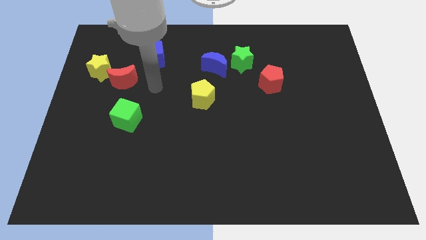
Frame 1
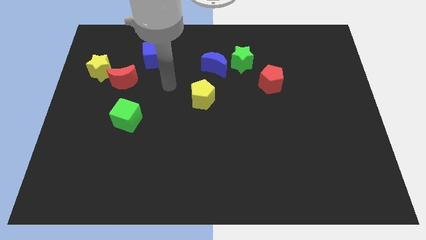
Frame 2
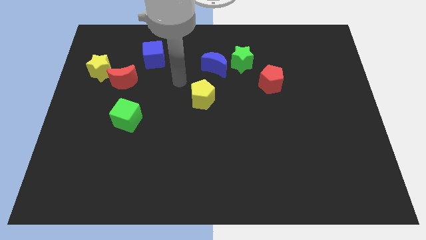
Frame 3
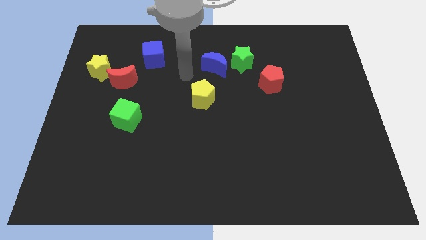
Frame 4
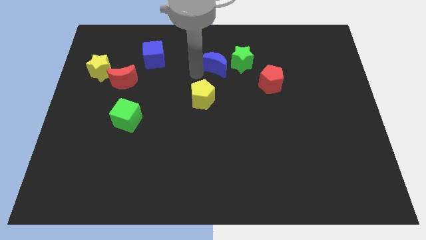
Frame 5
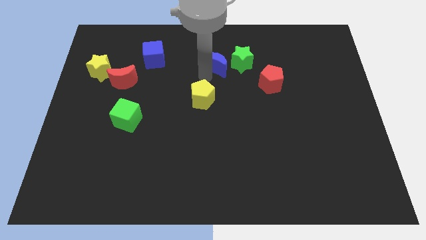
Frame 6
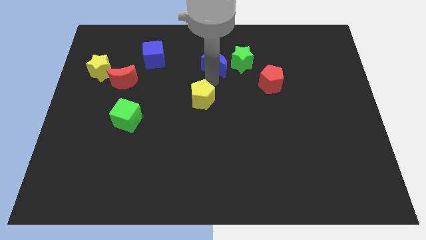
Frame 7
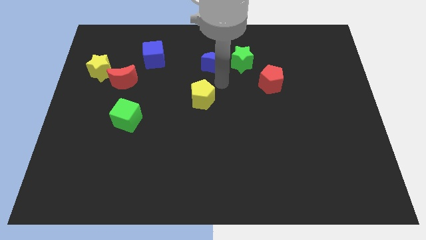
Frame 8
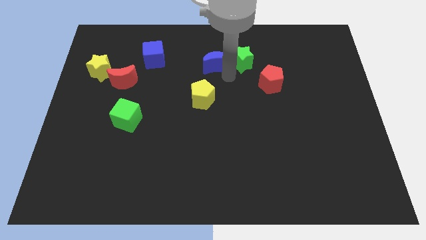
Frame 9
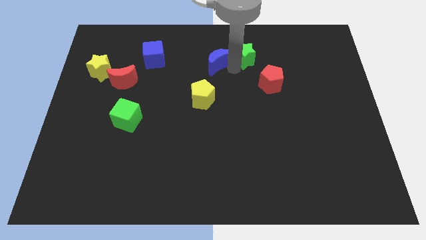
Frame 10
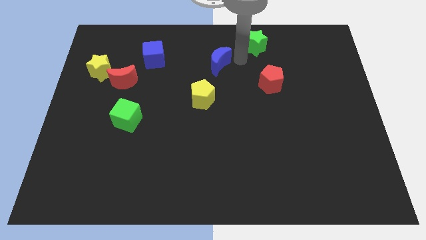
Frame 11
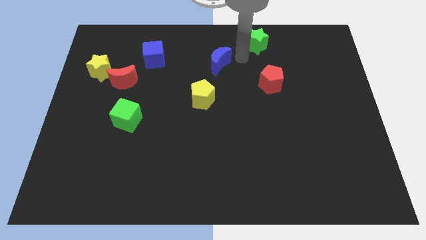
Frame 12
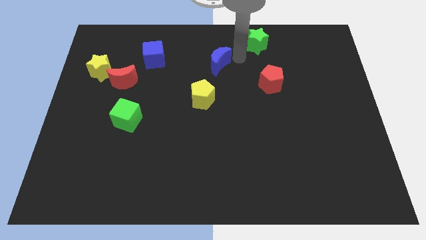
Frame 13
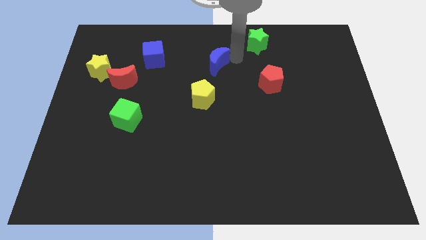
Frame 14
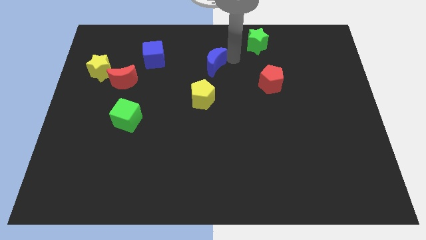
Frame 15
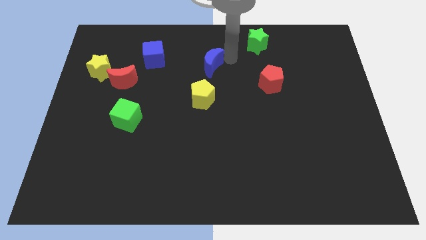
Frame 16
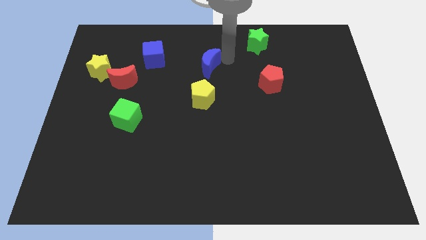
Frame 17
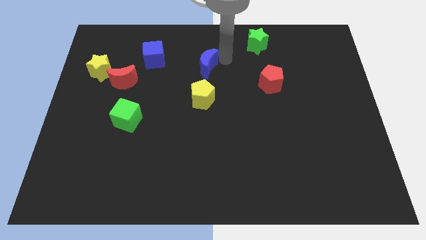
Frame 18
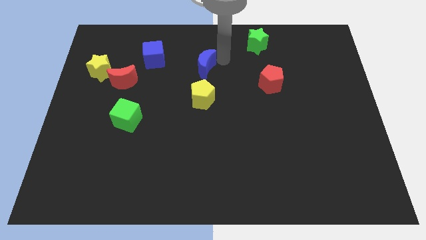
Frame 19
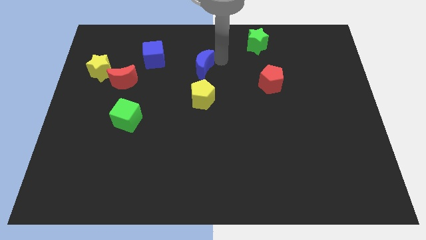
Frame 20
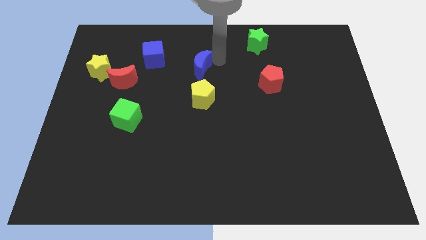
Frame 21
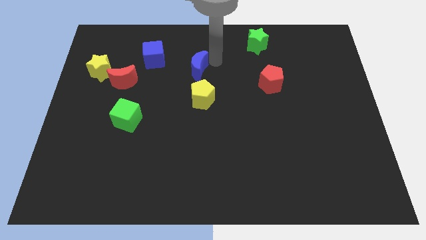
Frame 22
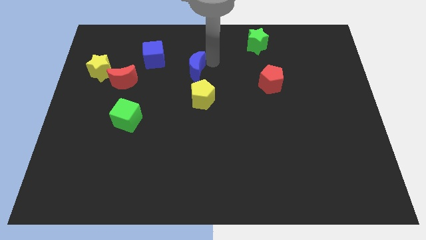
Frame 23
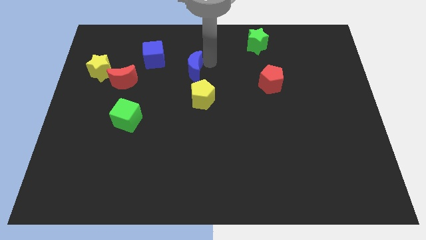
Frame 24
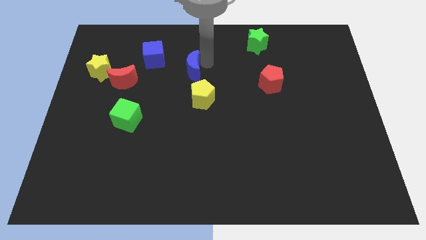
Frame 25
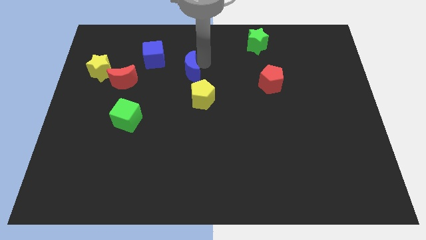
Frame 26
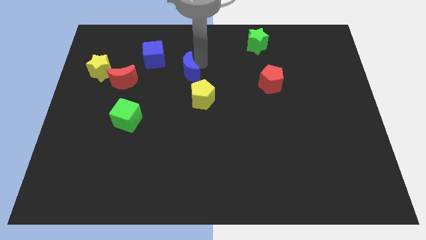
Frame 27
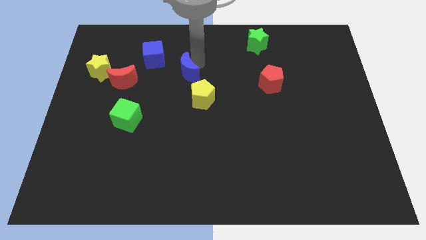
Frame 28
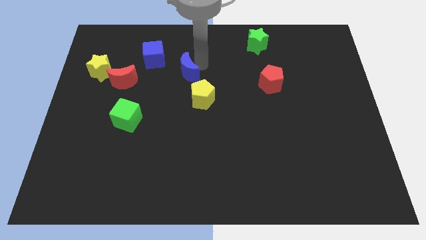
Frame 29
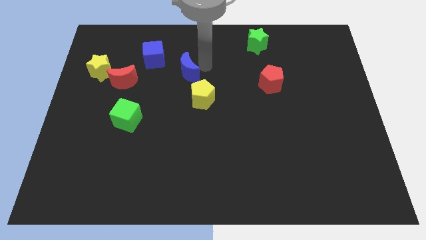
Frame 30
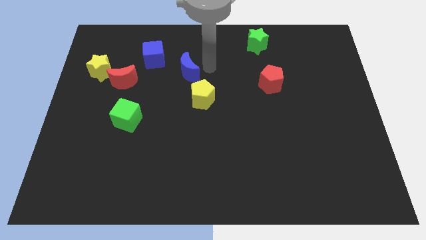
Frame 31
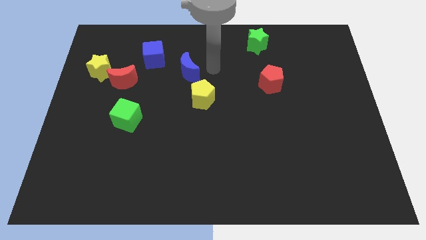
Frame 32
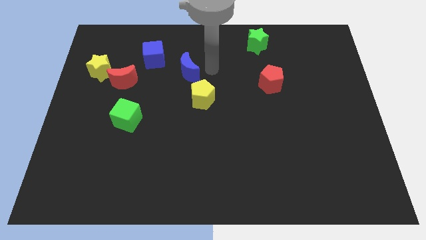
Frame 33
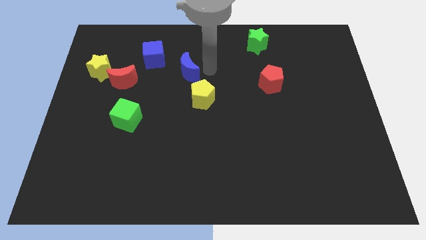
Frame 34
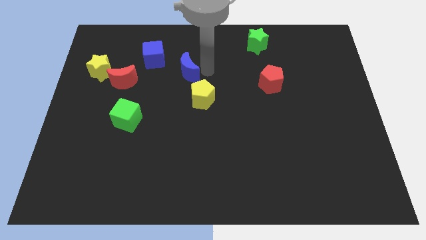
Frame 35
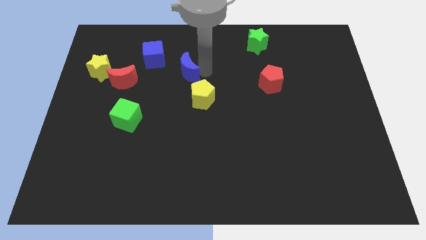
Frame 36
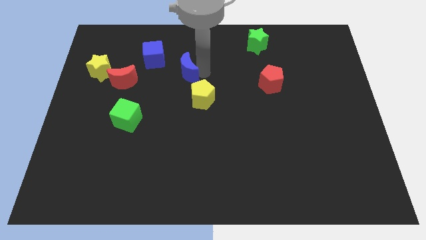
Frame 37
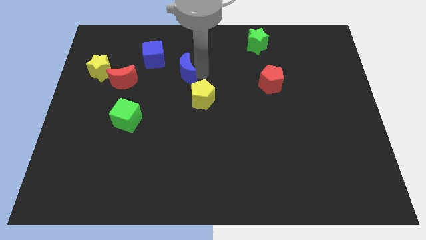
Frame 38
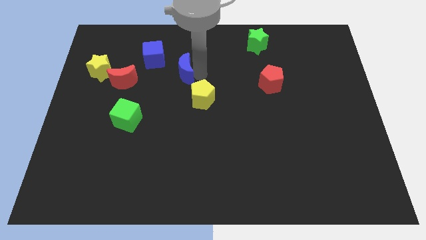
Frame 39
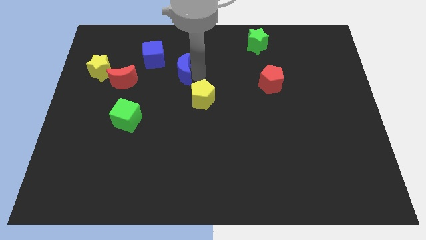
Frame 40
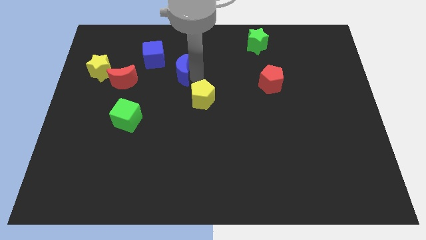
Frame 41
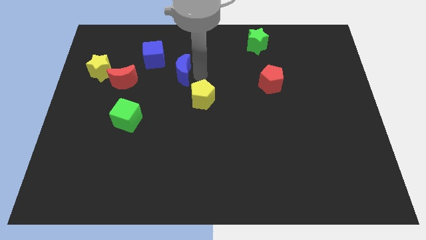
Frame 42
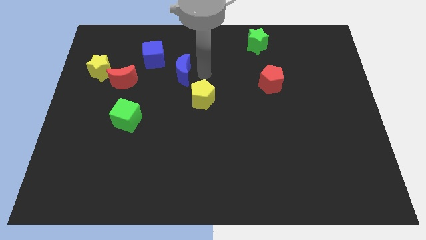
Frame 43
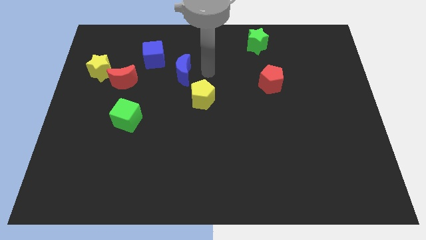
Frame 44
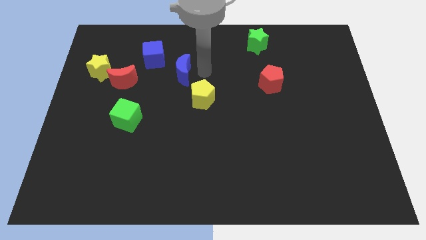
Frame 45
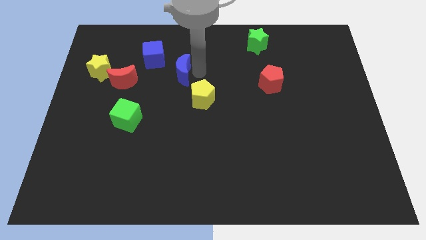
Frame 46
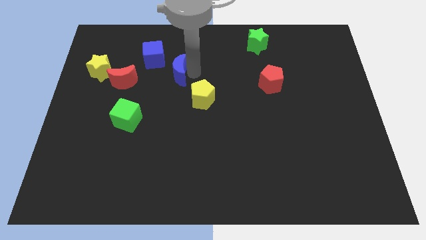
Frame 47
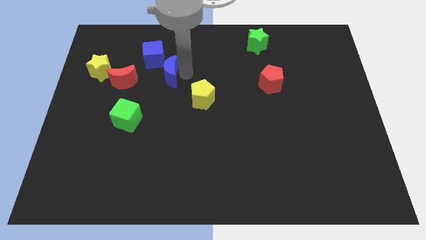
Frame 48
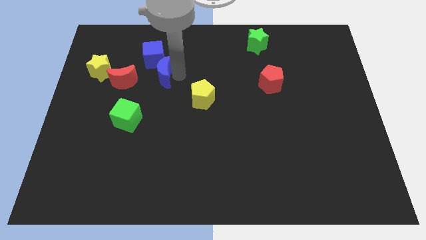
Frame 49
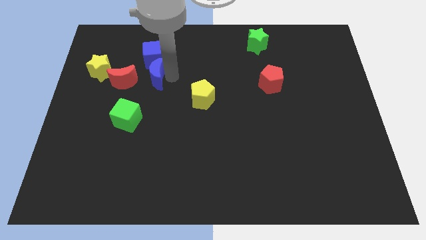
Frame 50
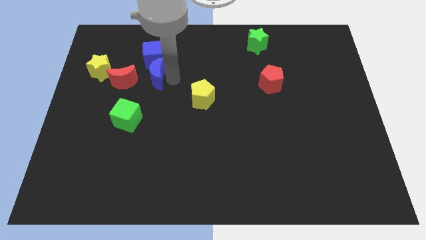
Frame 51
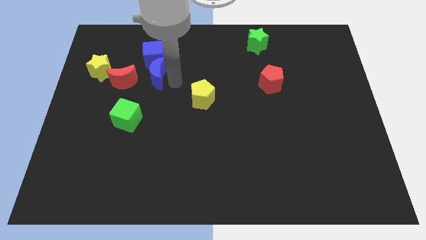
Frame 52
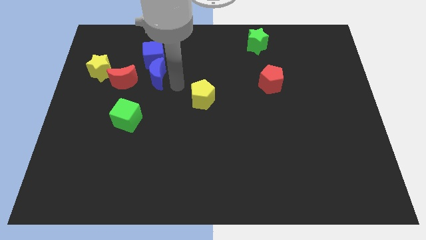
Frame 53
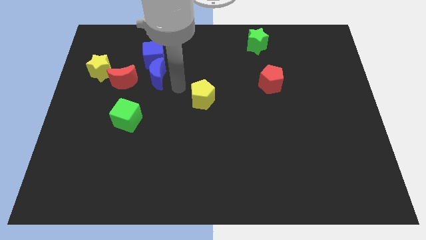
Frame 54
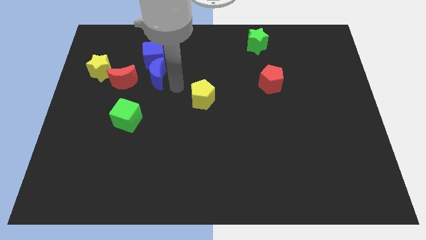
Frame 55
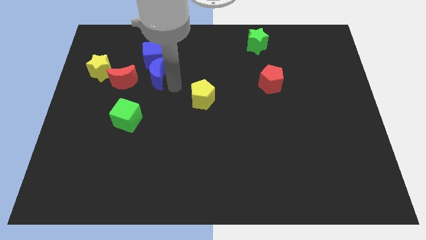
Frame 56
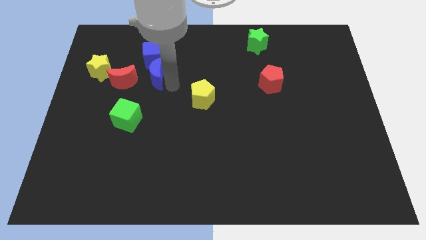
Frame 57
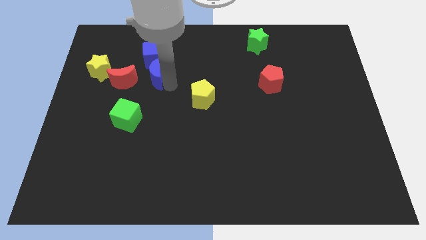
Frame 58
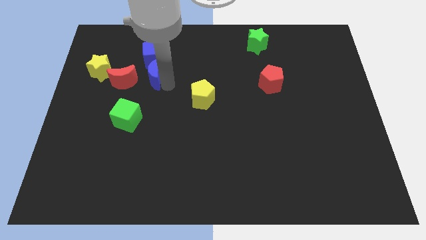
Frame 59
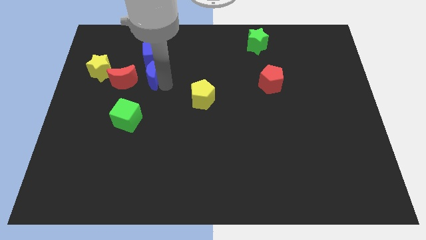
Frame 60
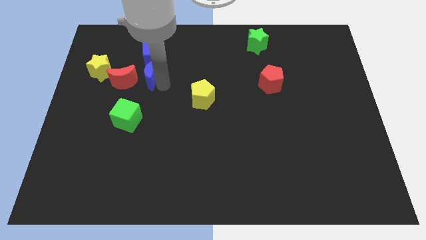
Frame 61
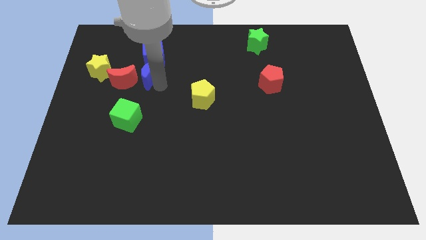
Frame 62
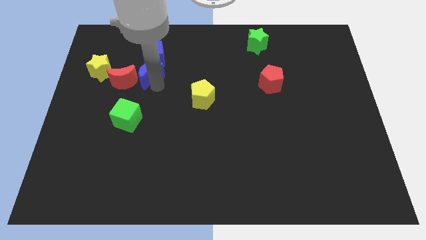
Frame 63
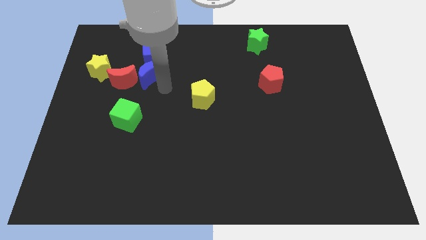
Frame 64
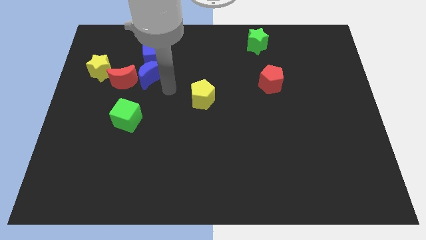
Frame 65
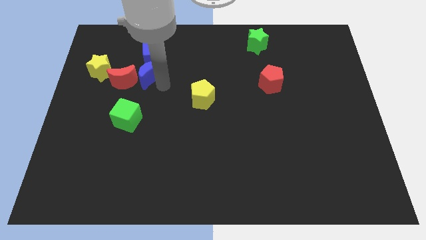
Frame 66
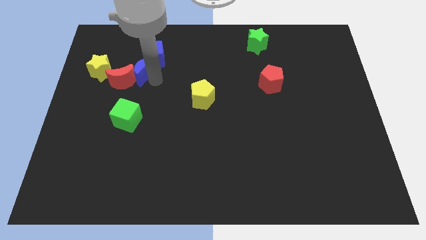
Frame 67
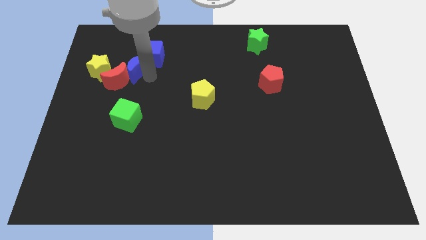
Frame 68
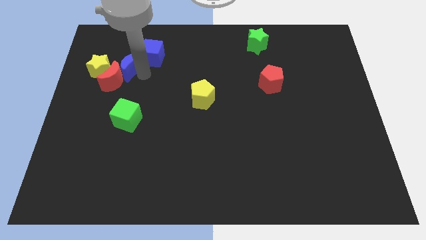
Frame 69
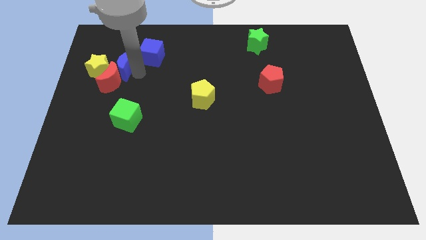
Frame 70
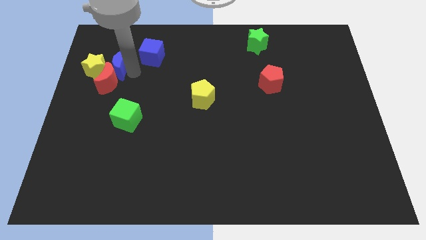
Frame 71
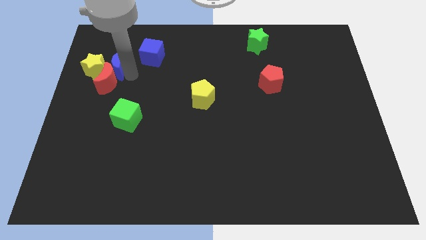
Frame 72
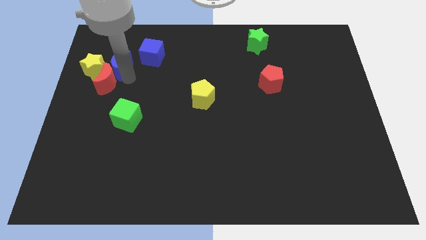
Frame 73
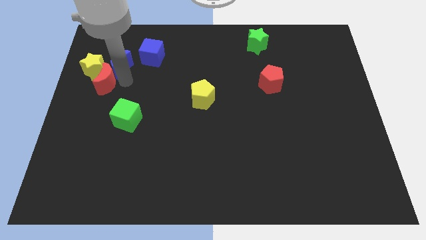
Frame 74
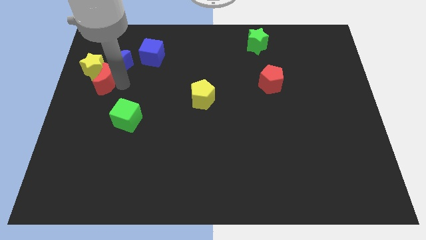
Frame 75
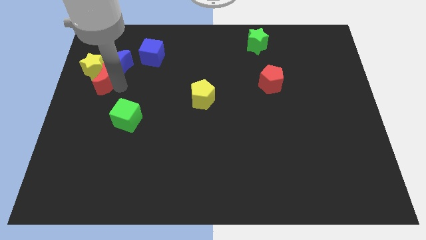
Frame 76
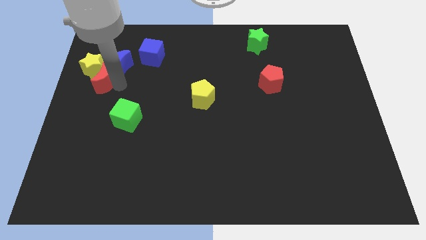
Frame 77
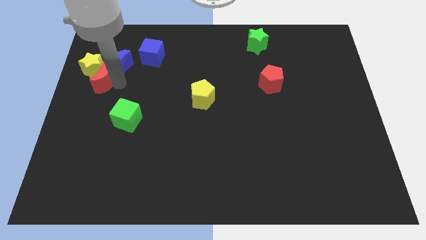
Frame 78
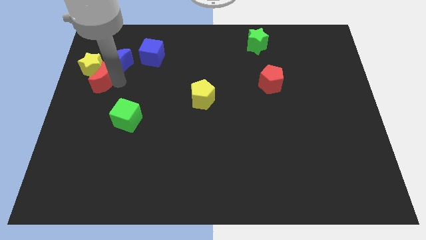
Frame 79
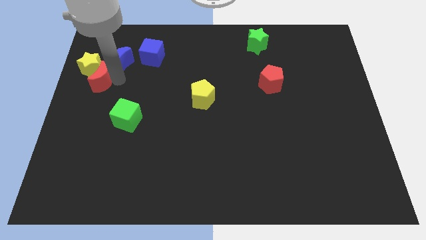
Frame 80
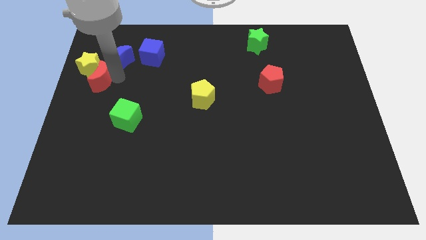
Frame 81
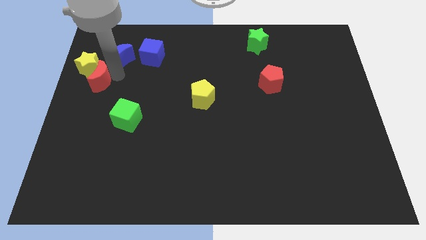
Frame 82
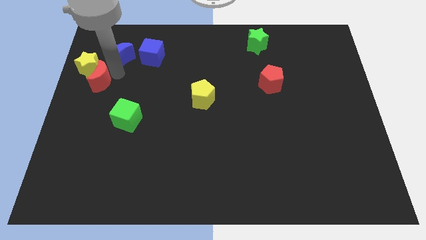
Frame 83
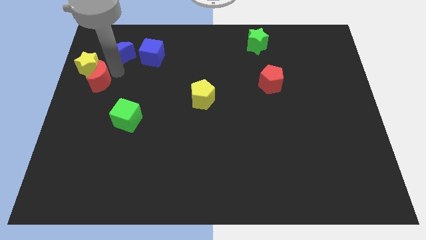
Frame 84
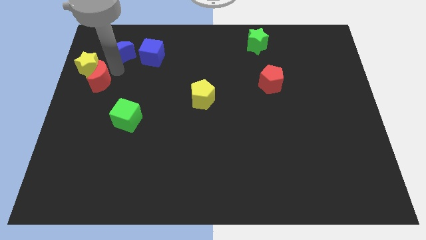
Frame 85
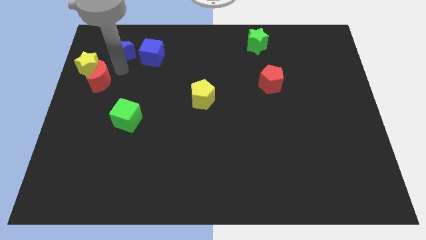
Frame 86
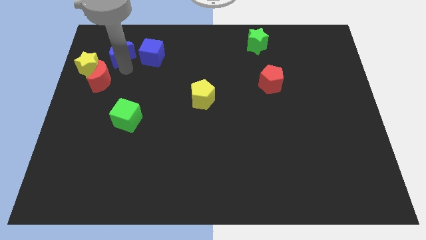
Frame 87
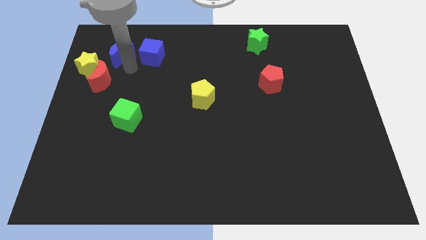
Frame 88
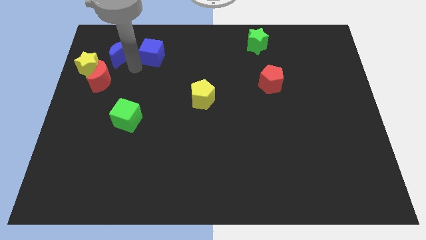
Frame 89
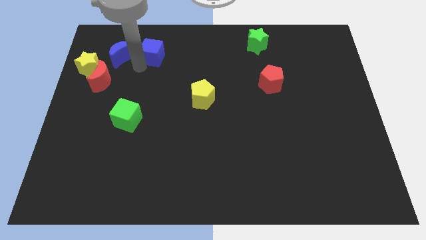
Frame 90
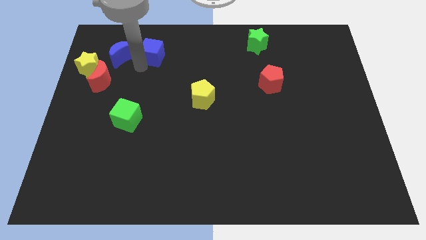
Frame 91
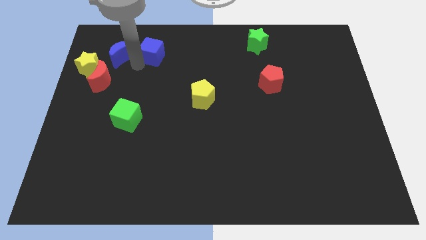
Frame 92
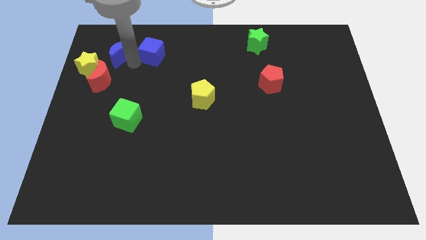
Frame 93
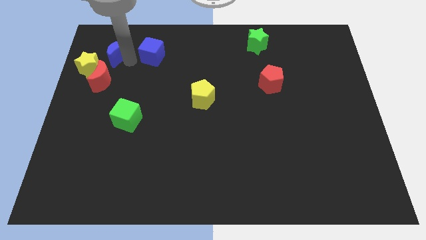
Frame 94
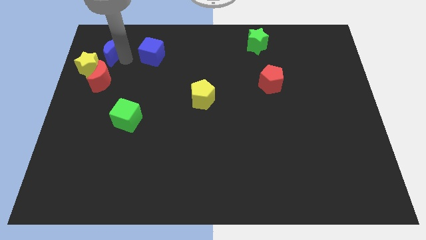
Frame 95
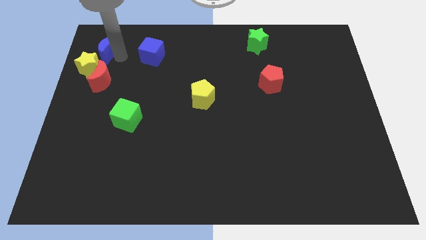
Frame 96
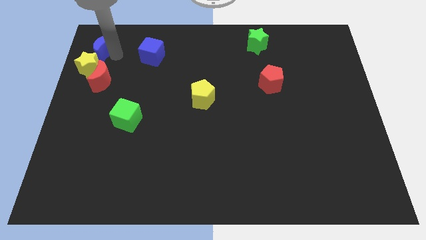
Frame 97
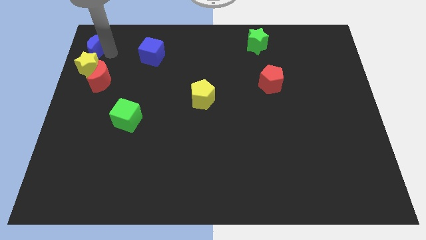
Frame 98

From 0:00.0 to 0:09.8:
slide the blue moon to the upper left corner
